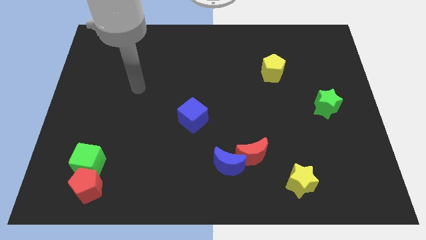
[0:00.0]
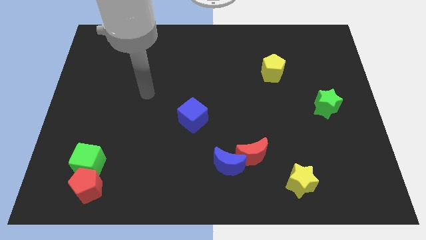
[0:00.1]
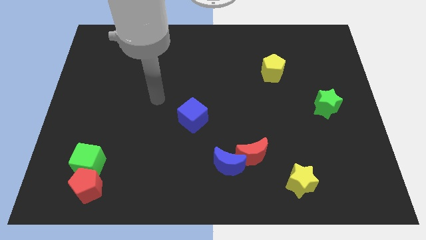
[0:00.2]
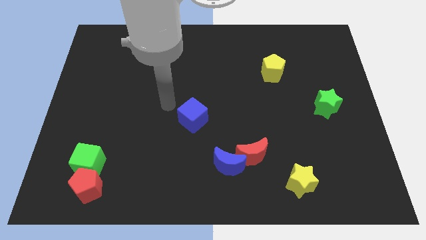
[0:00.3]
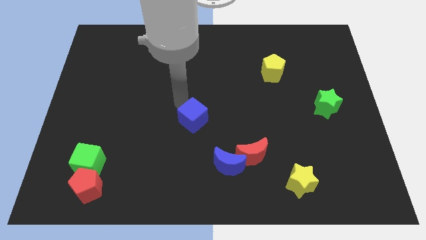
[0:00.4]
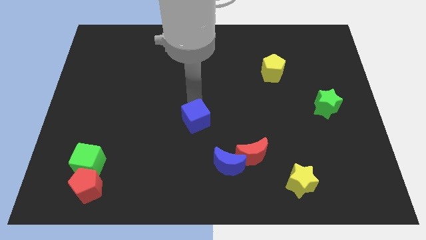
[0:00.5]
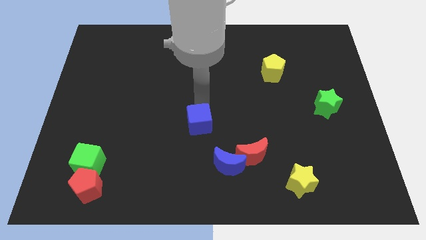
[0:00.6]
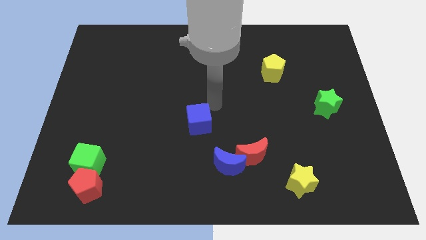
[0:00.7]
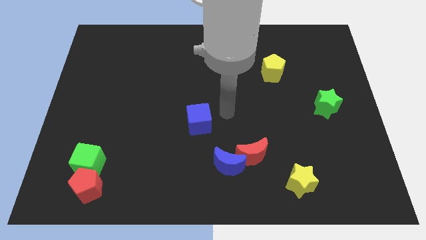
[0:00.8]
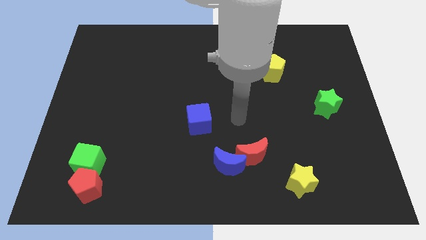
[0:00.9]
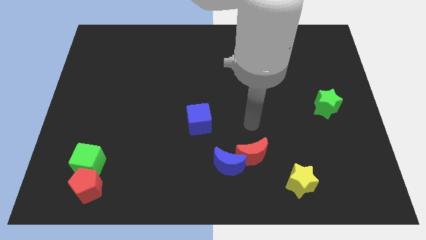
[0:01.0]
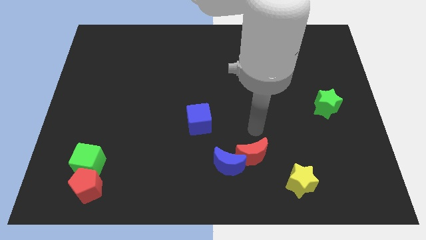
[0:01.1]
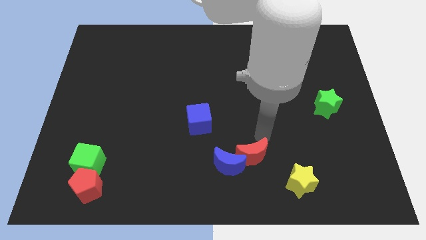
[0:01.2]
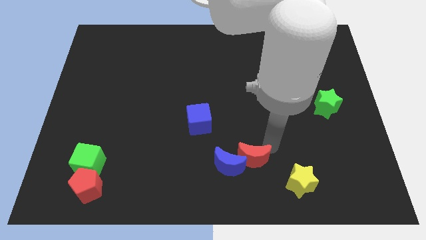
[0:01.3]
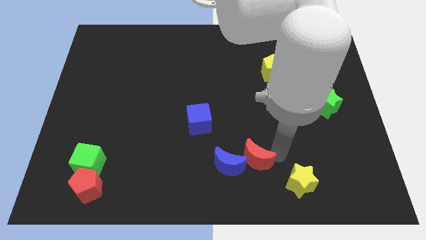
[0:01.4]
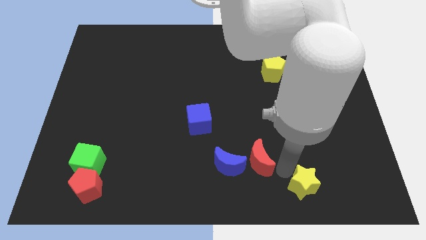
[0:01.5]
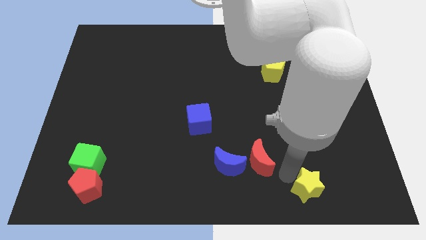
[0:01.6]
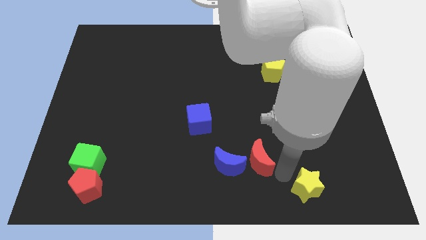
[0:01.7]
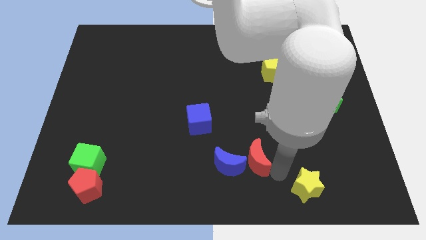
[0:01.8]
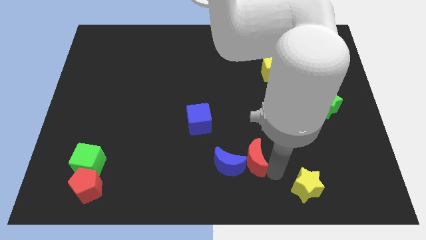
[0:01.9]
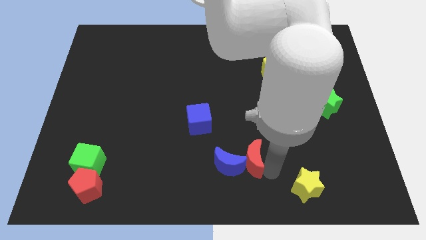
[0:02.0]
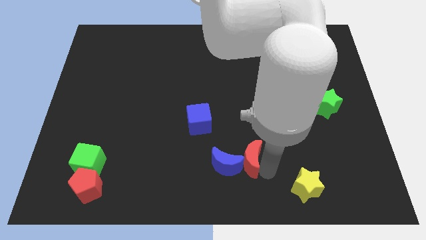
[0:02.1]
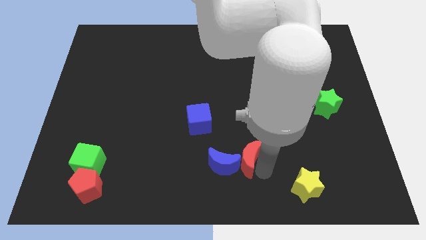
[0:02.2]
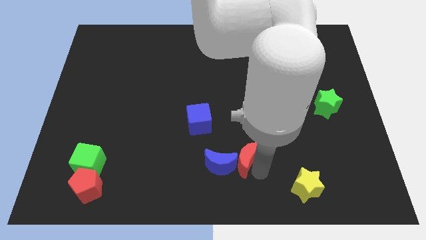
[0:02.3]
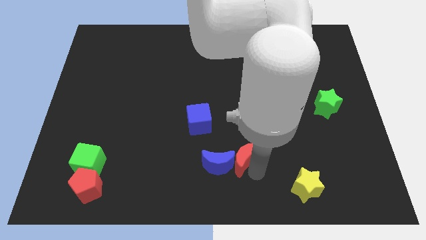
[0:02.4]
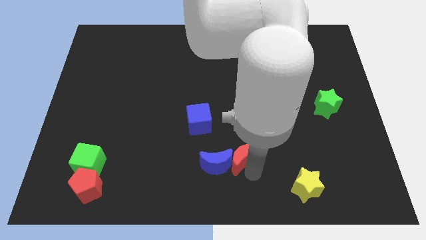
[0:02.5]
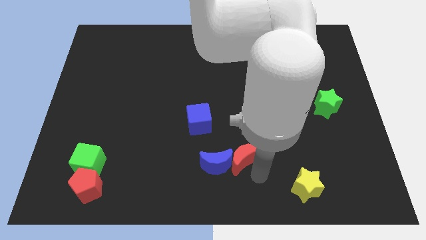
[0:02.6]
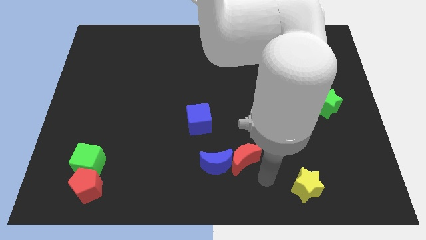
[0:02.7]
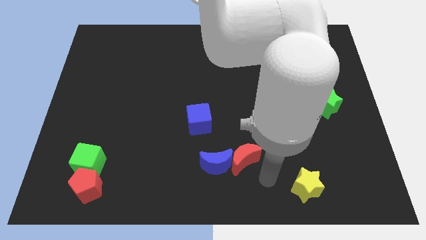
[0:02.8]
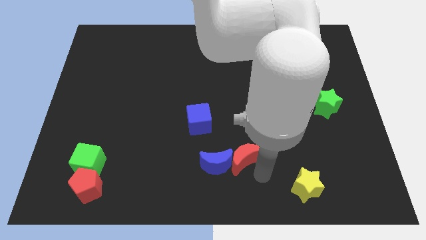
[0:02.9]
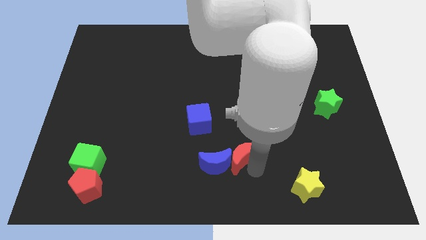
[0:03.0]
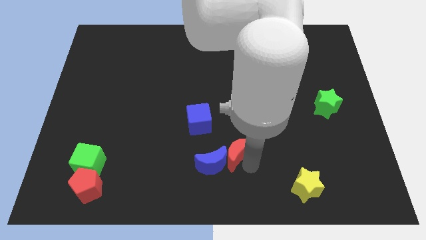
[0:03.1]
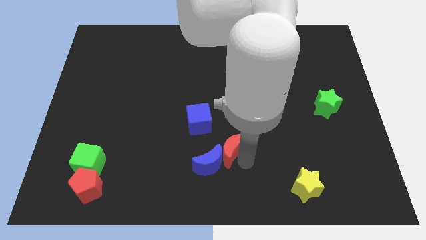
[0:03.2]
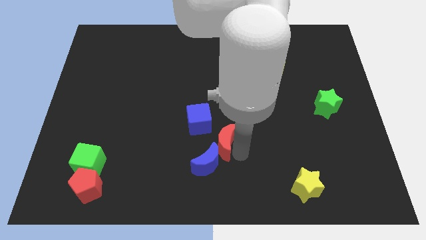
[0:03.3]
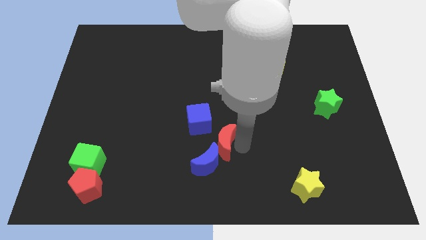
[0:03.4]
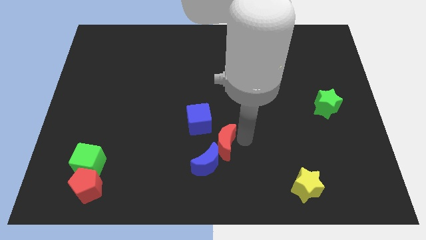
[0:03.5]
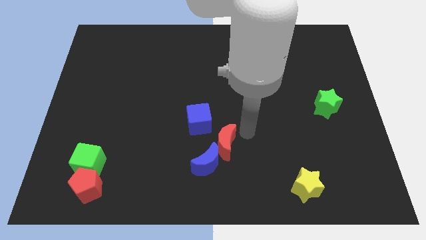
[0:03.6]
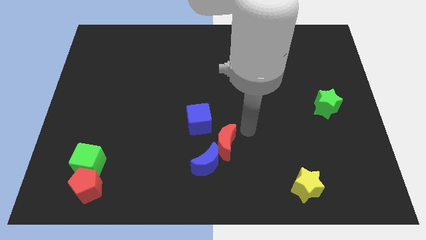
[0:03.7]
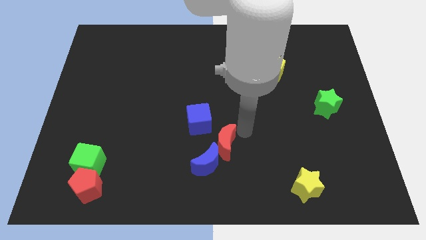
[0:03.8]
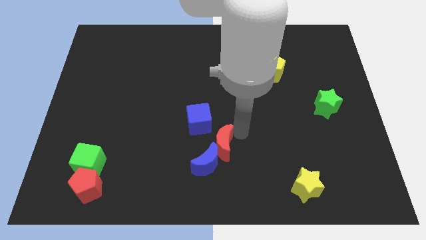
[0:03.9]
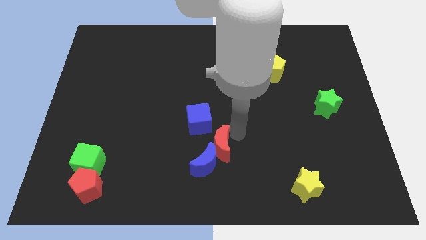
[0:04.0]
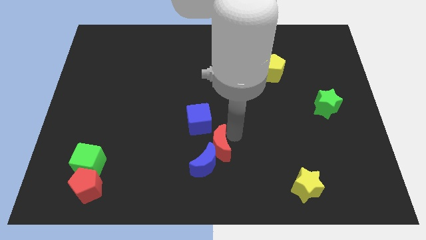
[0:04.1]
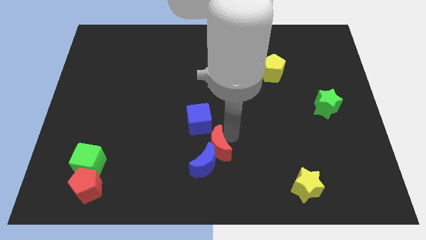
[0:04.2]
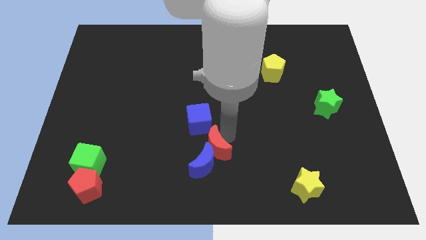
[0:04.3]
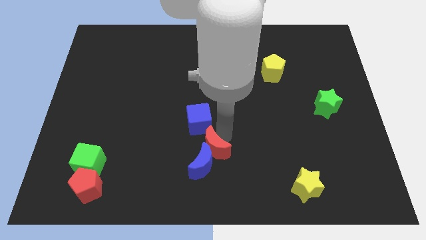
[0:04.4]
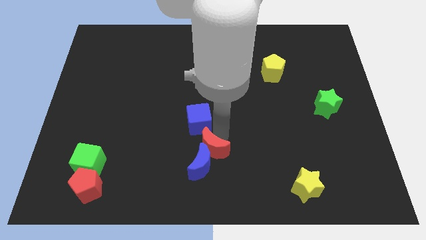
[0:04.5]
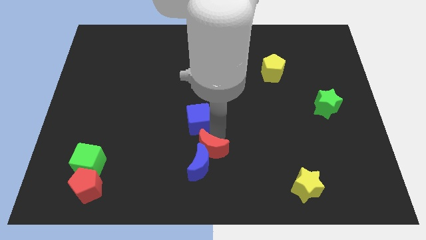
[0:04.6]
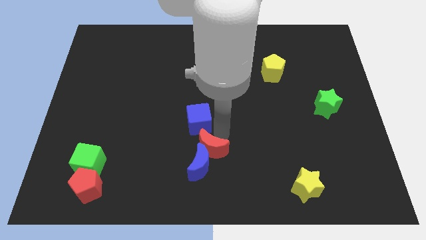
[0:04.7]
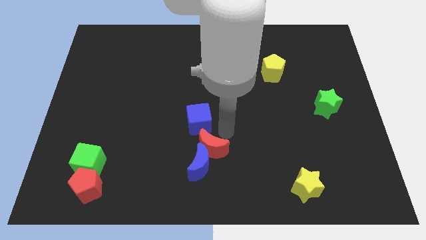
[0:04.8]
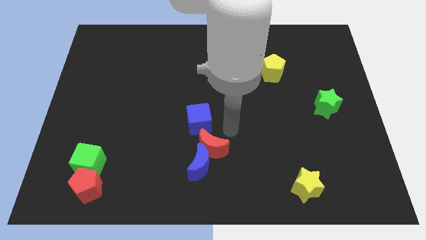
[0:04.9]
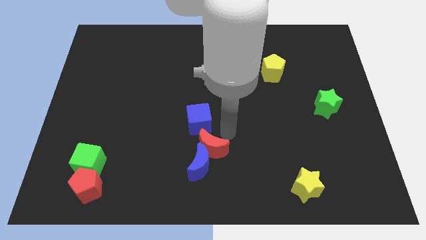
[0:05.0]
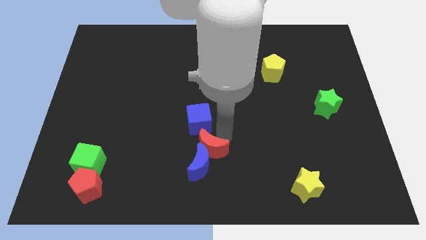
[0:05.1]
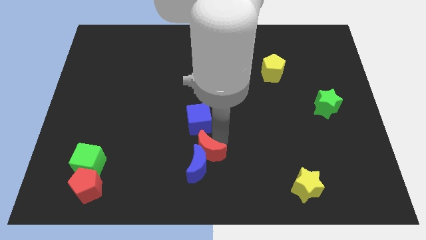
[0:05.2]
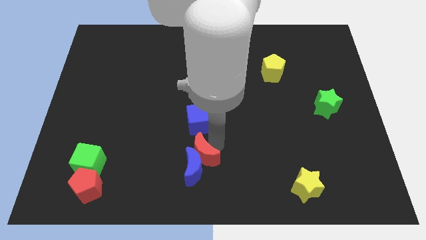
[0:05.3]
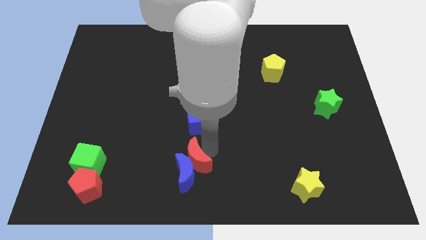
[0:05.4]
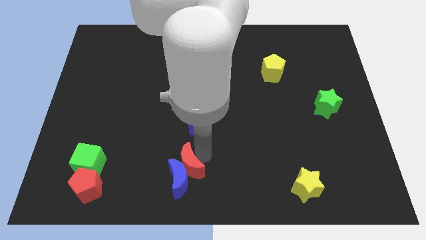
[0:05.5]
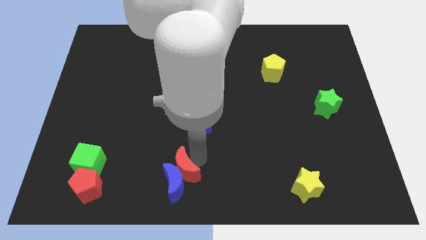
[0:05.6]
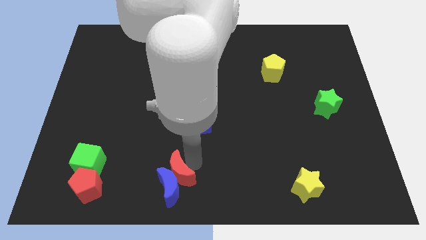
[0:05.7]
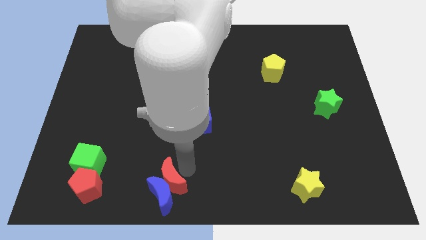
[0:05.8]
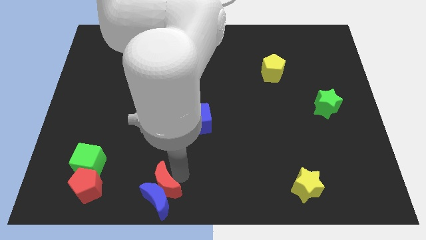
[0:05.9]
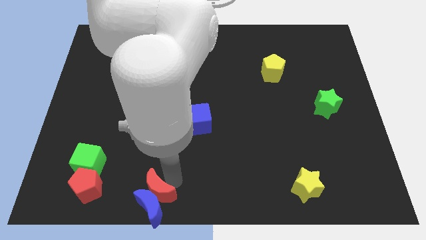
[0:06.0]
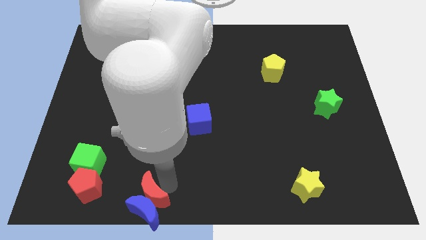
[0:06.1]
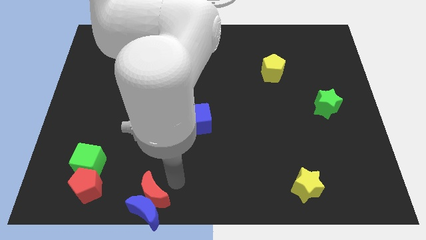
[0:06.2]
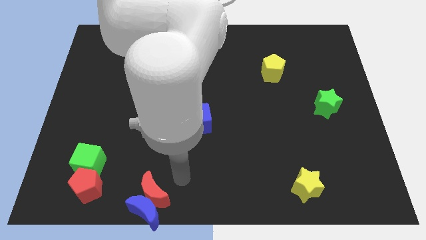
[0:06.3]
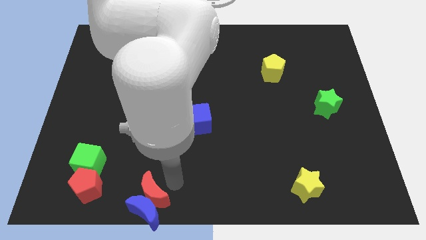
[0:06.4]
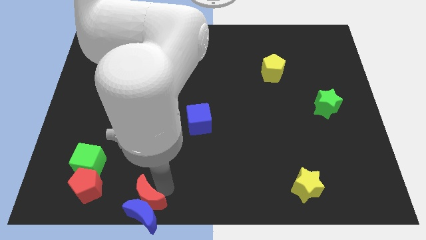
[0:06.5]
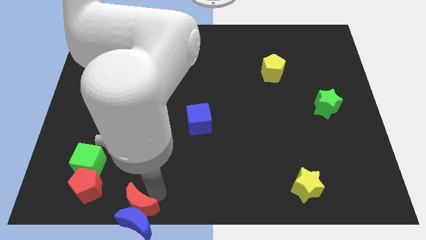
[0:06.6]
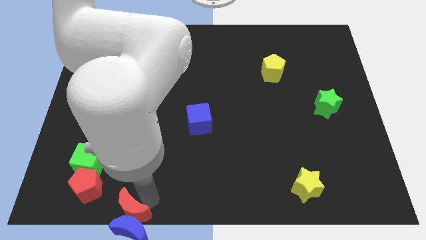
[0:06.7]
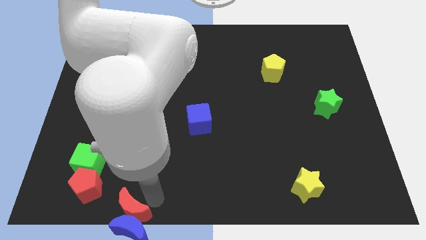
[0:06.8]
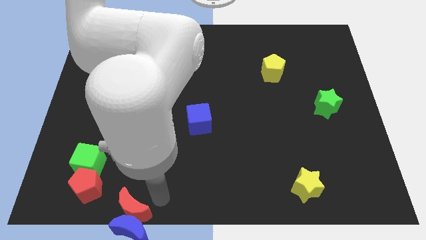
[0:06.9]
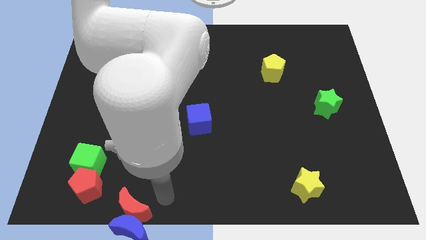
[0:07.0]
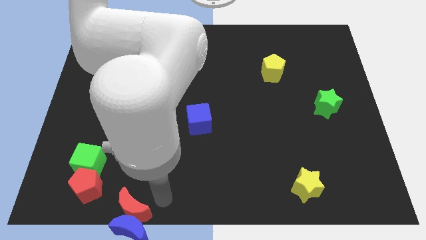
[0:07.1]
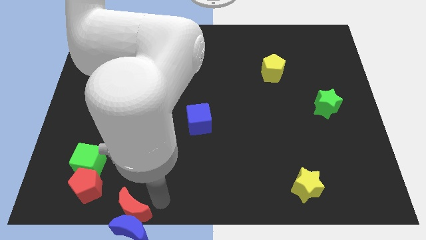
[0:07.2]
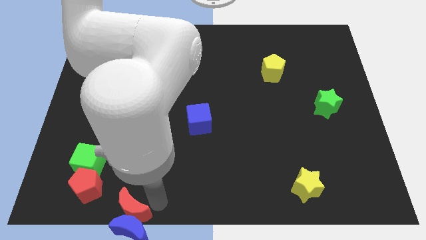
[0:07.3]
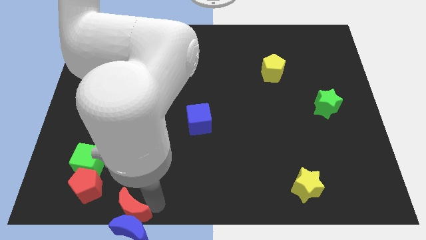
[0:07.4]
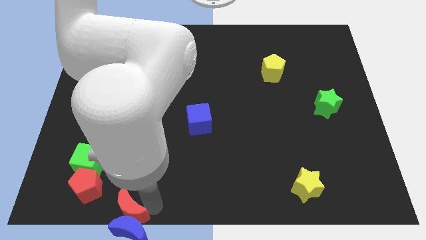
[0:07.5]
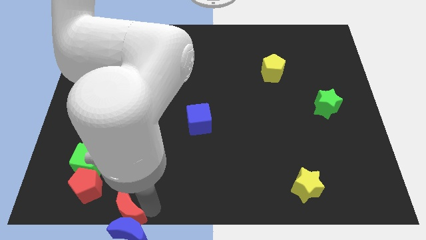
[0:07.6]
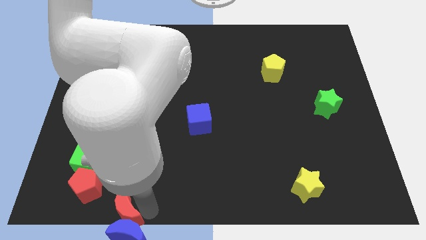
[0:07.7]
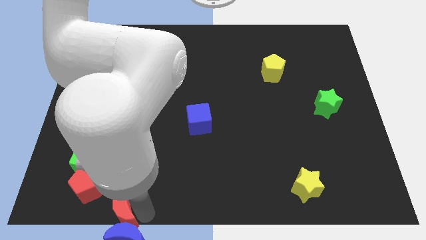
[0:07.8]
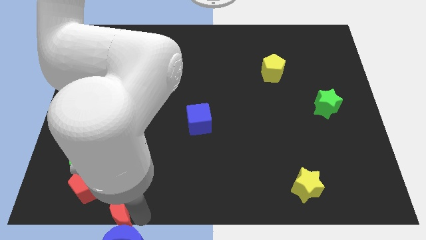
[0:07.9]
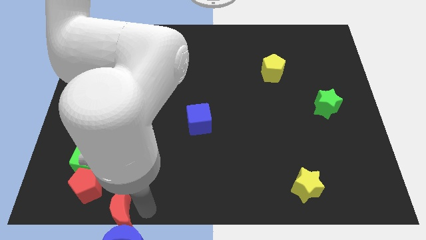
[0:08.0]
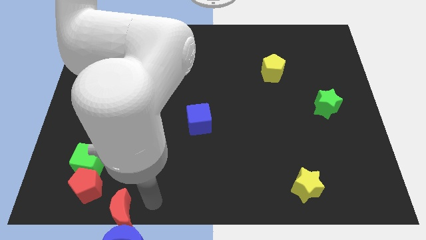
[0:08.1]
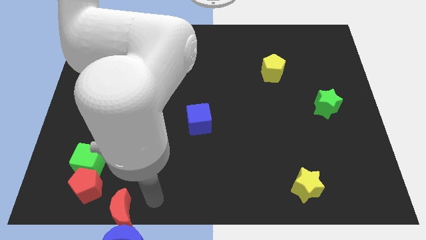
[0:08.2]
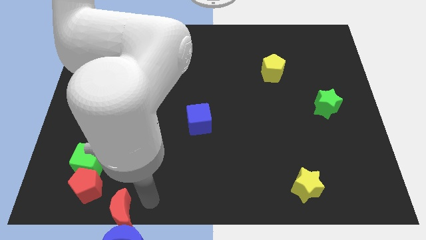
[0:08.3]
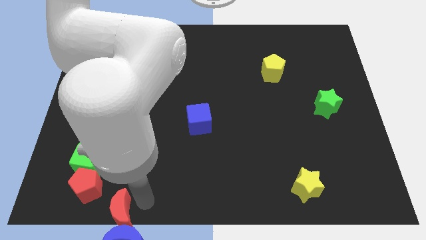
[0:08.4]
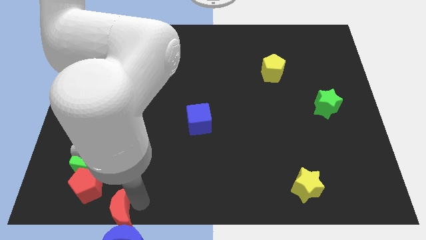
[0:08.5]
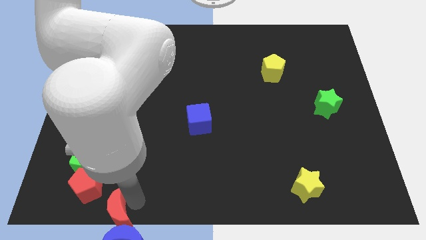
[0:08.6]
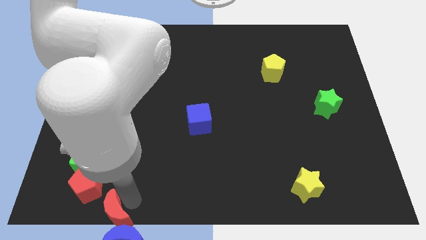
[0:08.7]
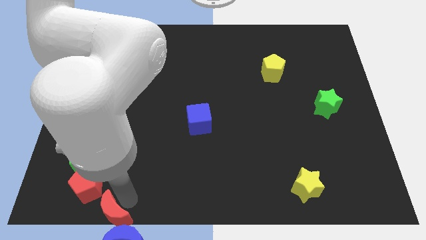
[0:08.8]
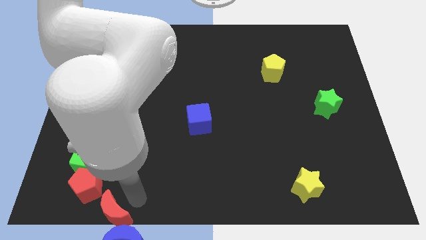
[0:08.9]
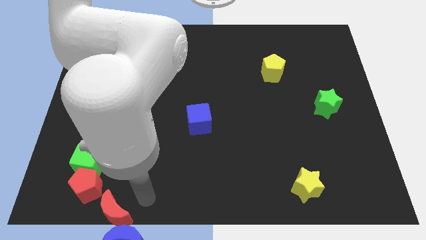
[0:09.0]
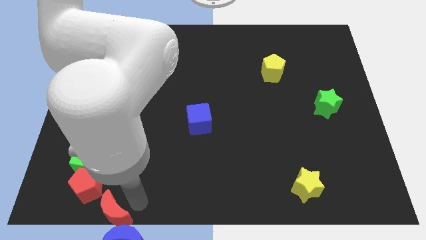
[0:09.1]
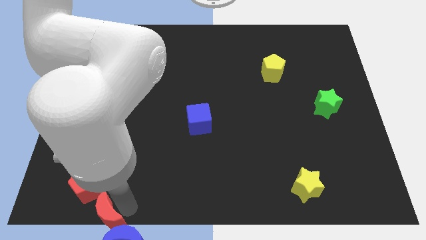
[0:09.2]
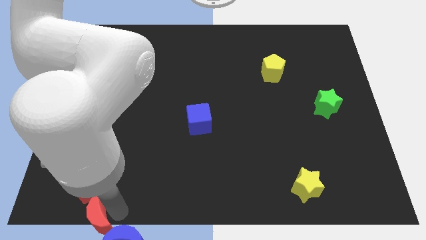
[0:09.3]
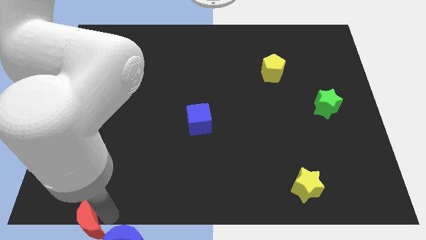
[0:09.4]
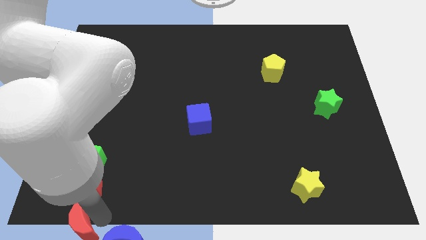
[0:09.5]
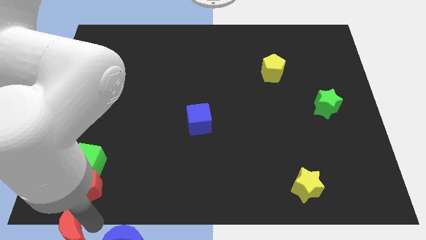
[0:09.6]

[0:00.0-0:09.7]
slide the red moon to the bottom left corner
